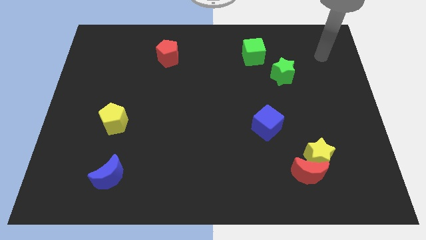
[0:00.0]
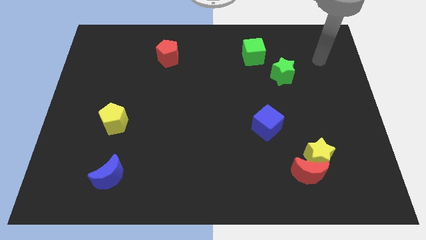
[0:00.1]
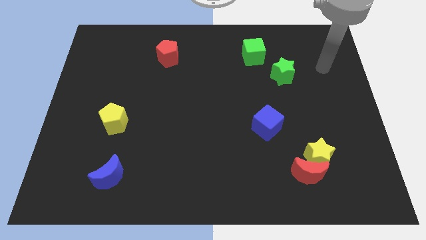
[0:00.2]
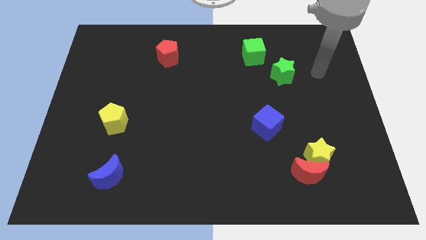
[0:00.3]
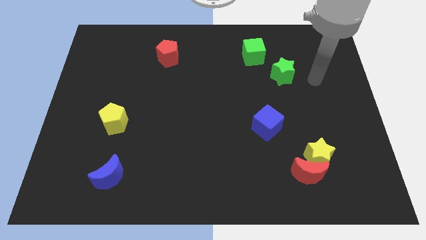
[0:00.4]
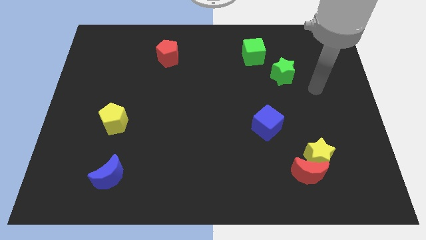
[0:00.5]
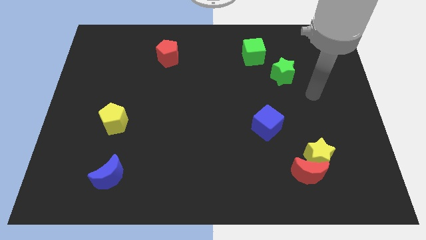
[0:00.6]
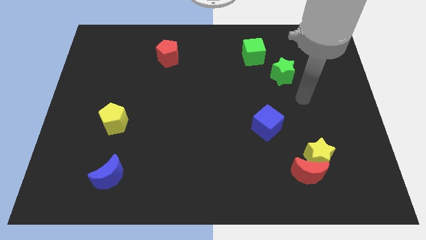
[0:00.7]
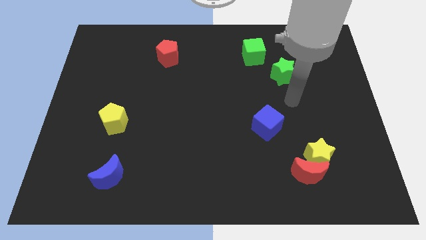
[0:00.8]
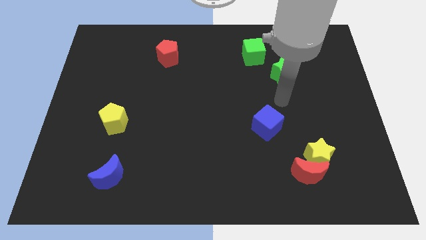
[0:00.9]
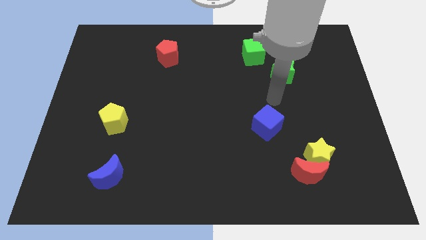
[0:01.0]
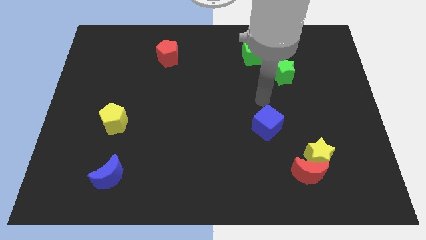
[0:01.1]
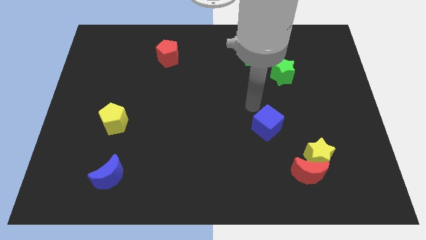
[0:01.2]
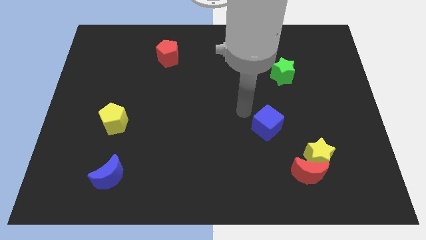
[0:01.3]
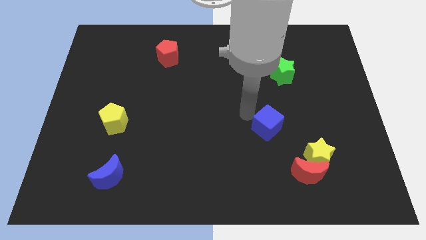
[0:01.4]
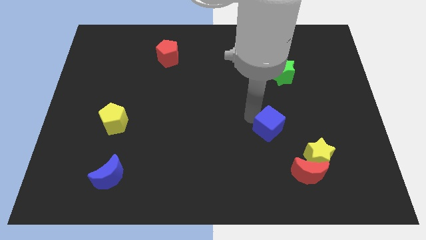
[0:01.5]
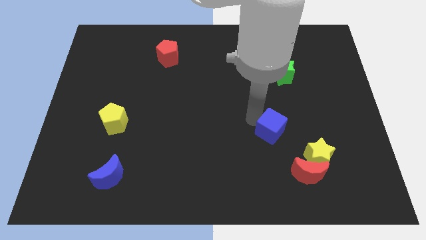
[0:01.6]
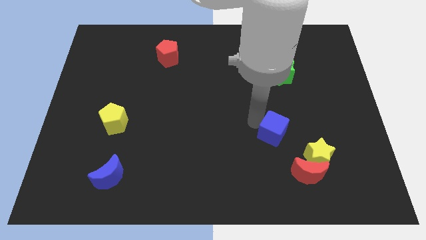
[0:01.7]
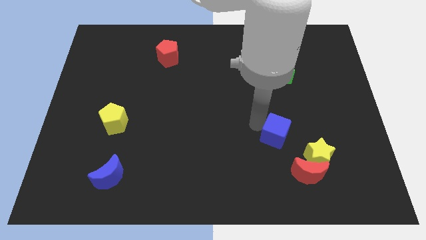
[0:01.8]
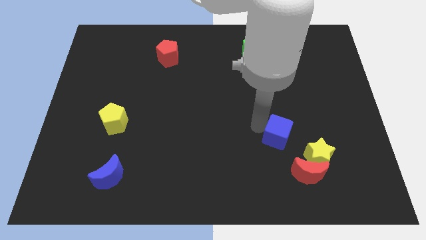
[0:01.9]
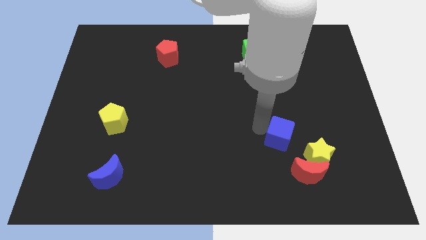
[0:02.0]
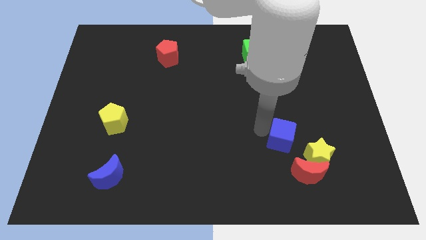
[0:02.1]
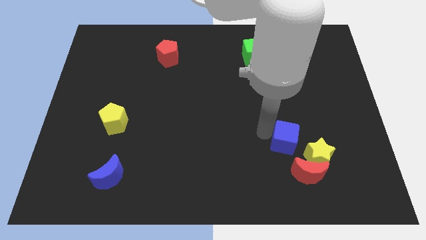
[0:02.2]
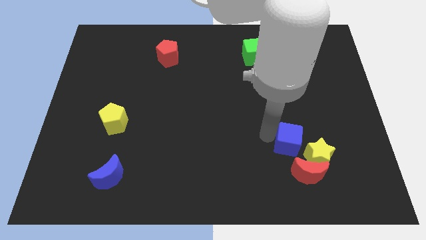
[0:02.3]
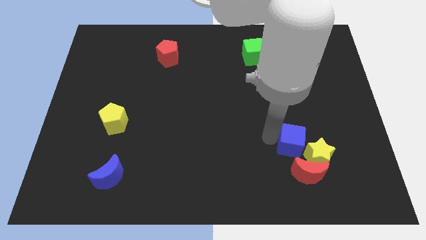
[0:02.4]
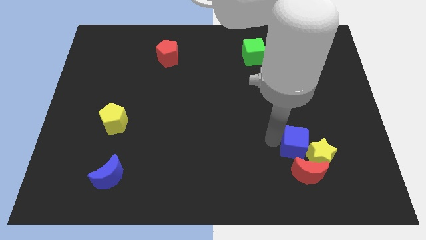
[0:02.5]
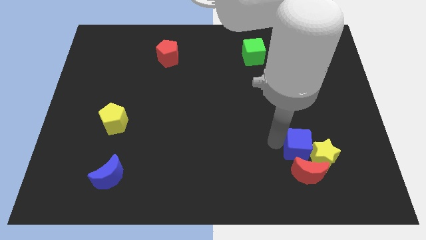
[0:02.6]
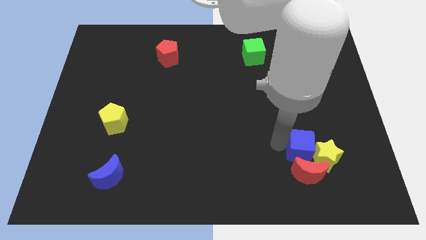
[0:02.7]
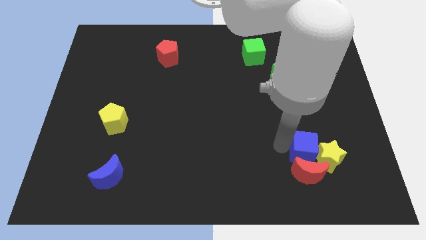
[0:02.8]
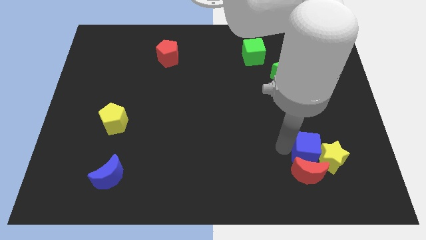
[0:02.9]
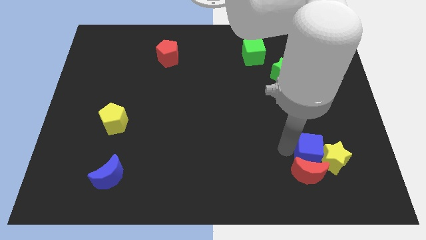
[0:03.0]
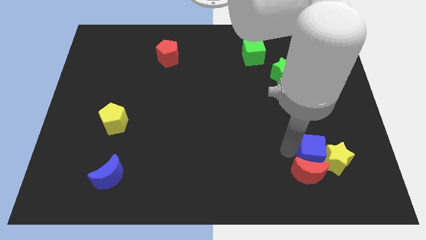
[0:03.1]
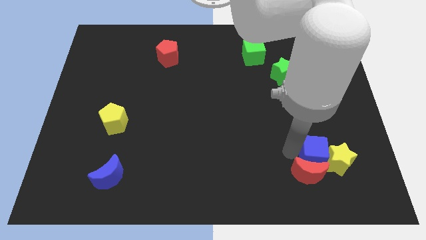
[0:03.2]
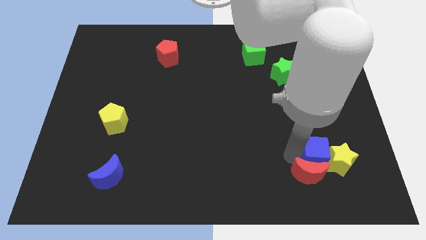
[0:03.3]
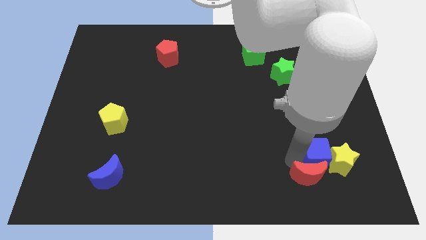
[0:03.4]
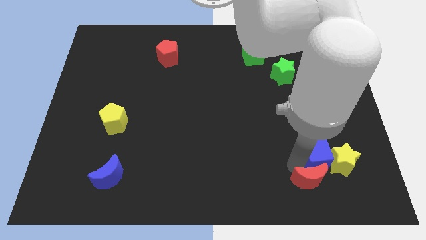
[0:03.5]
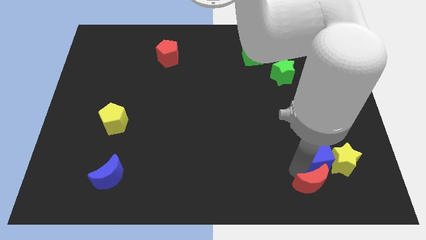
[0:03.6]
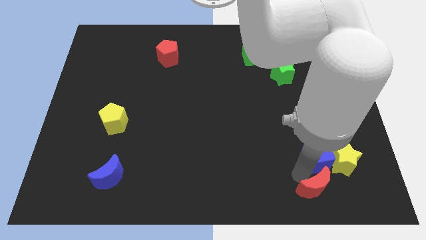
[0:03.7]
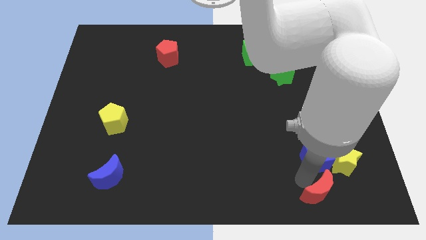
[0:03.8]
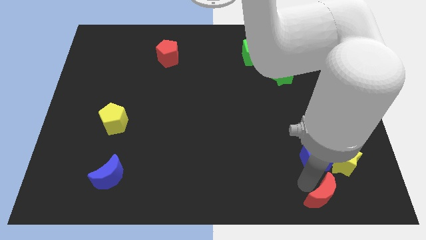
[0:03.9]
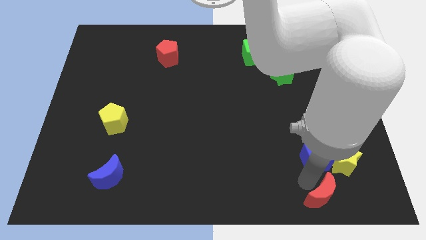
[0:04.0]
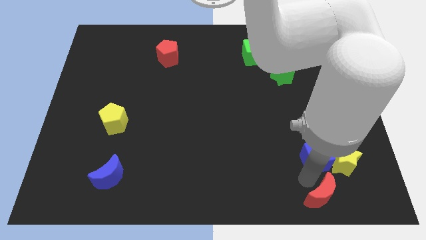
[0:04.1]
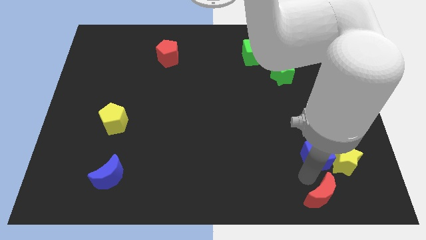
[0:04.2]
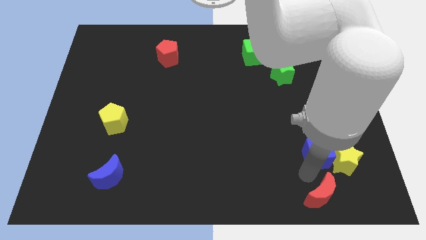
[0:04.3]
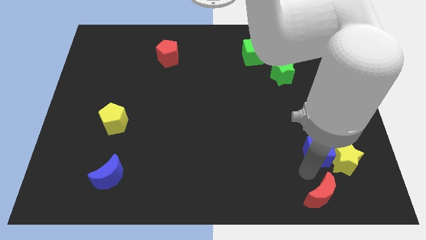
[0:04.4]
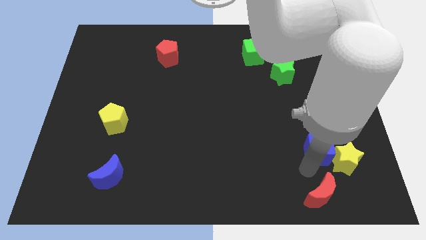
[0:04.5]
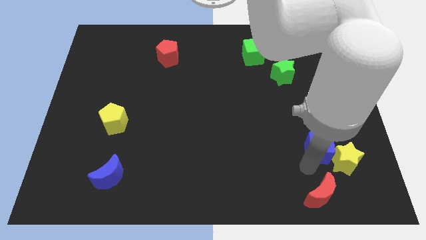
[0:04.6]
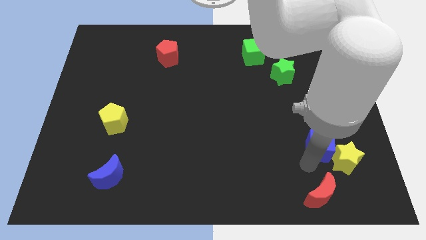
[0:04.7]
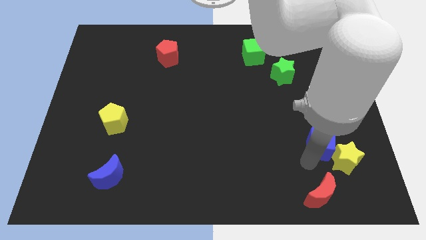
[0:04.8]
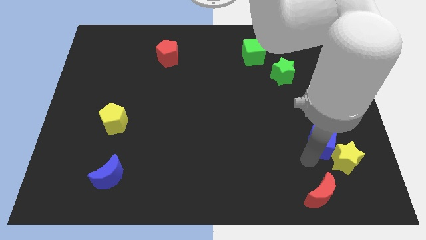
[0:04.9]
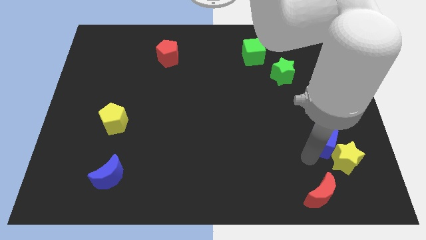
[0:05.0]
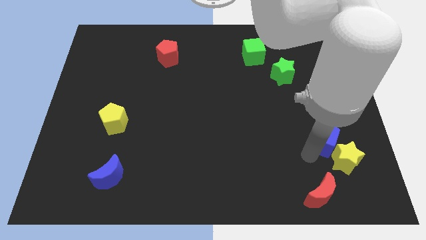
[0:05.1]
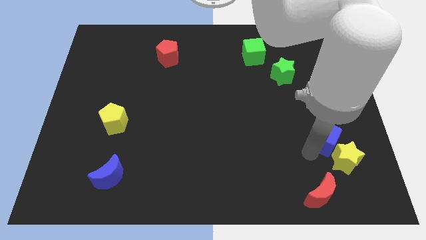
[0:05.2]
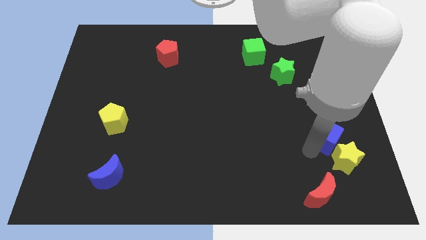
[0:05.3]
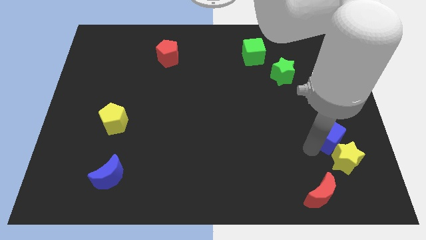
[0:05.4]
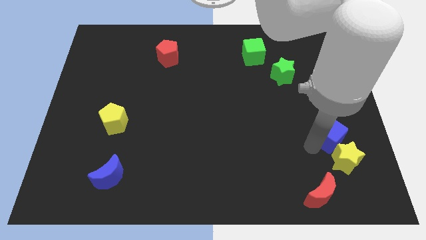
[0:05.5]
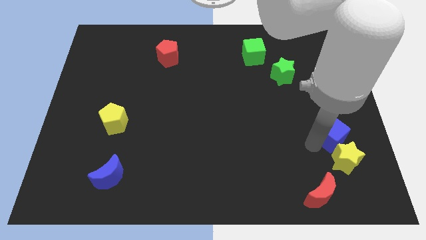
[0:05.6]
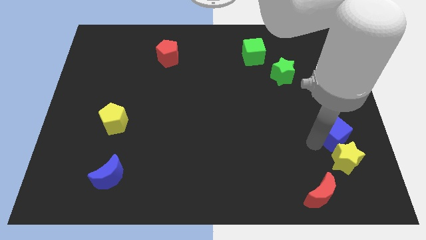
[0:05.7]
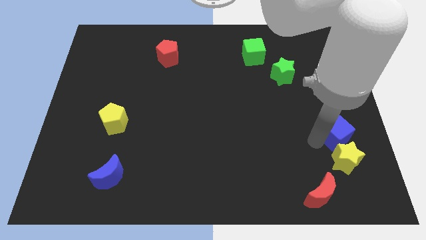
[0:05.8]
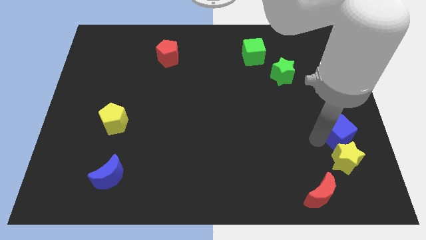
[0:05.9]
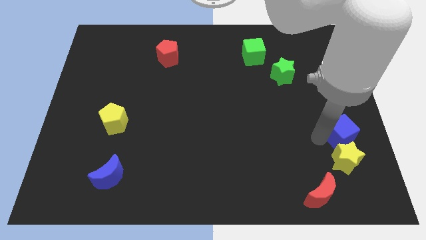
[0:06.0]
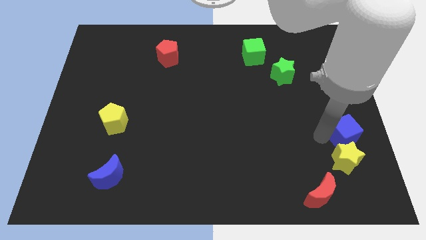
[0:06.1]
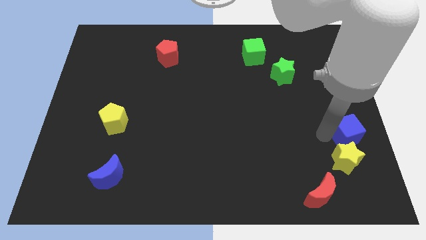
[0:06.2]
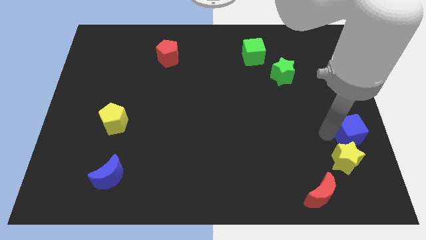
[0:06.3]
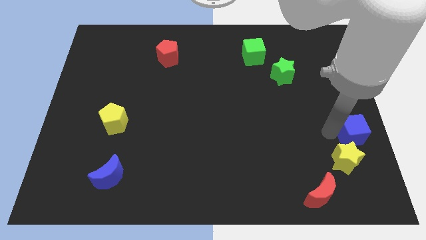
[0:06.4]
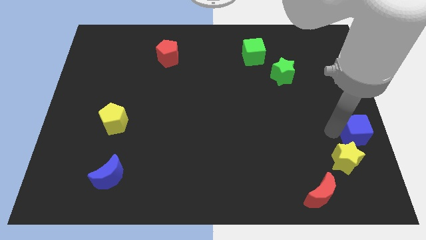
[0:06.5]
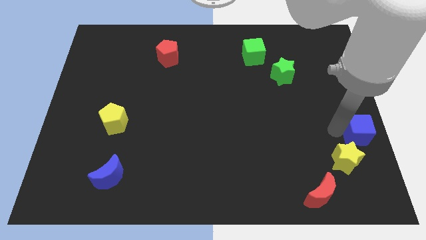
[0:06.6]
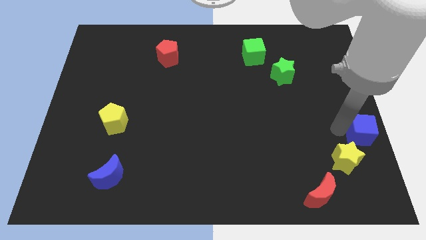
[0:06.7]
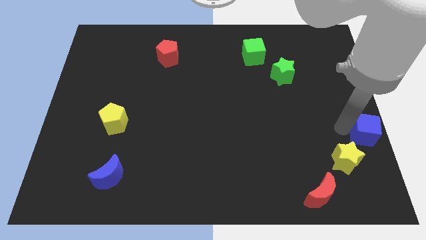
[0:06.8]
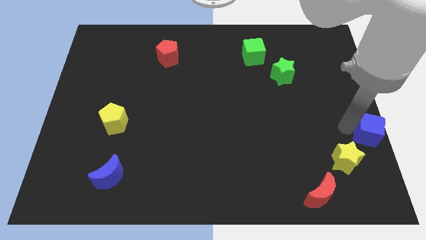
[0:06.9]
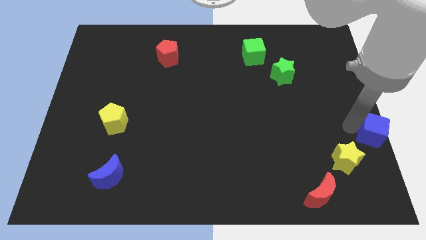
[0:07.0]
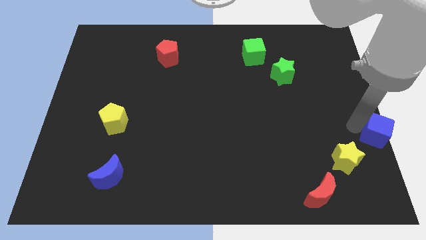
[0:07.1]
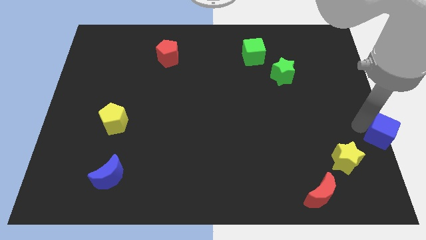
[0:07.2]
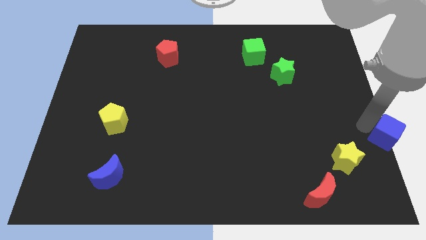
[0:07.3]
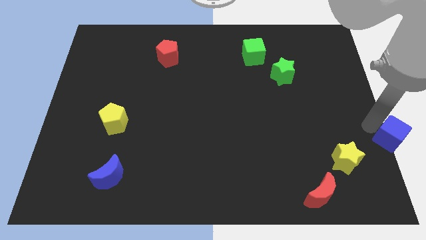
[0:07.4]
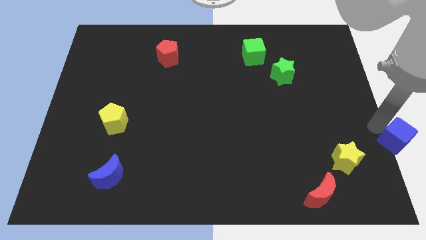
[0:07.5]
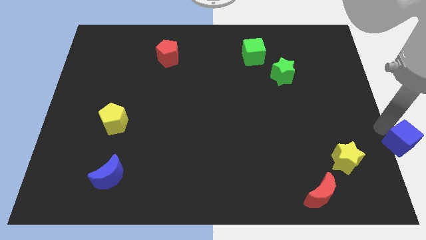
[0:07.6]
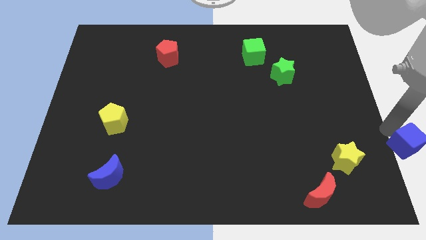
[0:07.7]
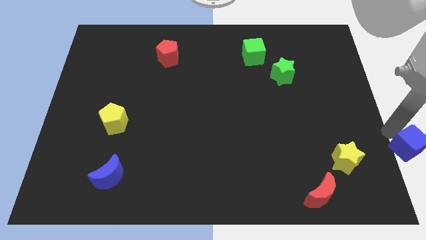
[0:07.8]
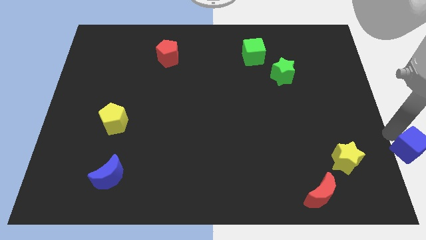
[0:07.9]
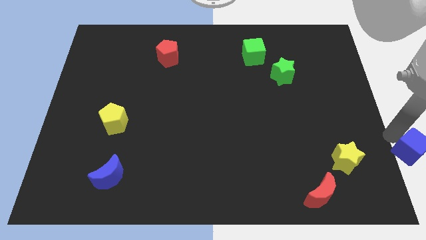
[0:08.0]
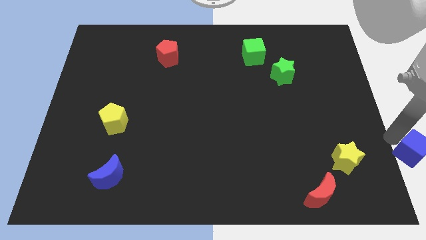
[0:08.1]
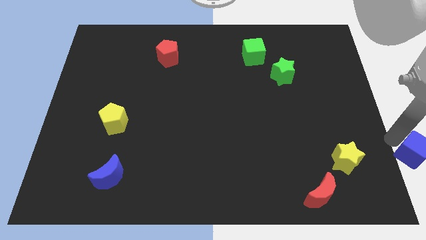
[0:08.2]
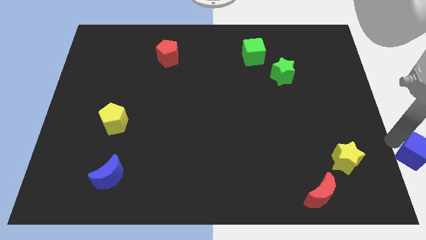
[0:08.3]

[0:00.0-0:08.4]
put the blue cube to the bottom right
